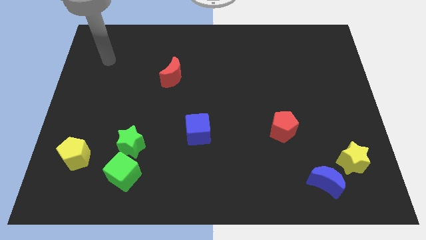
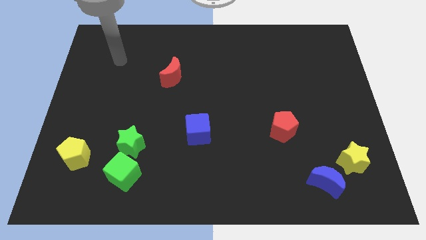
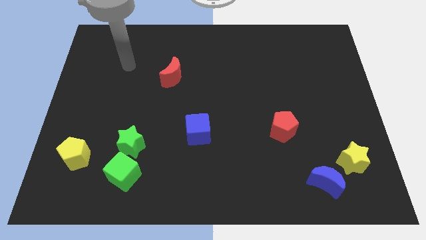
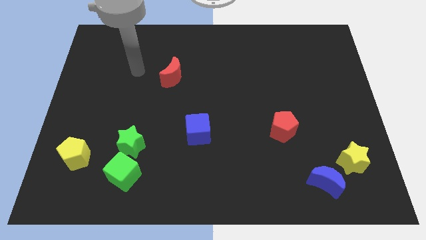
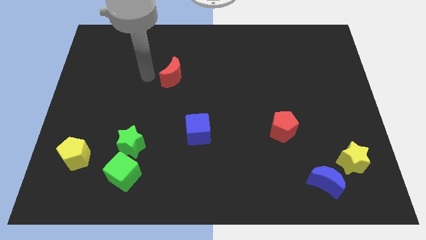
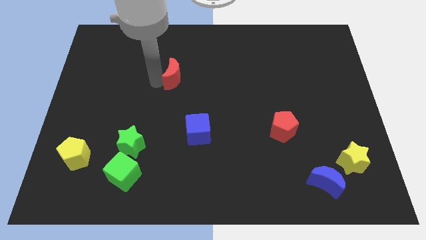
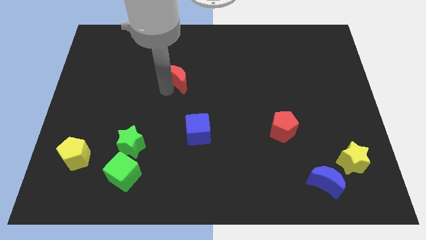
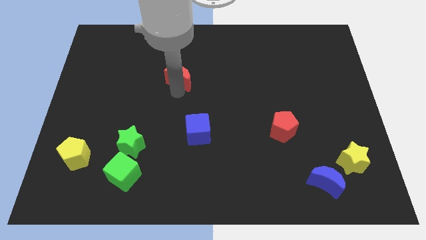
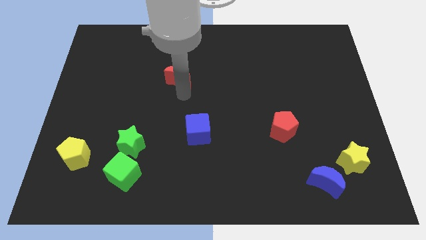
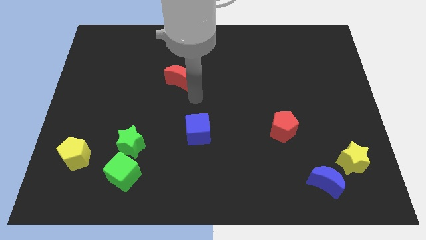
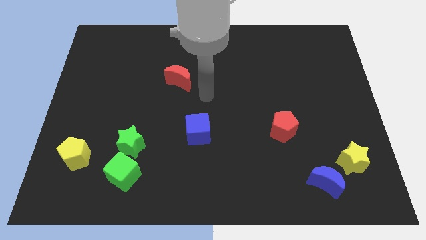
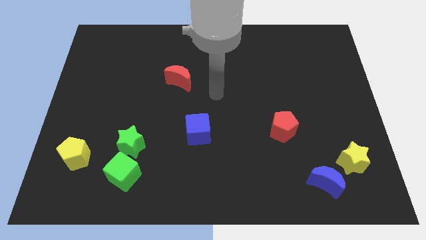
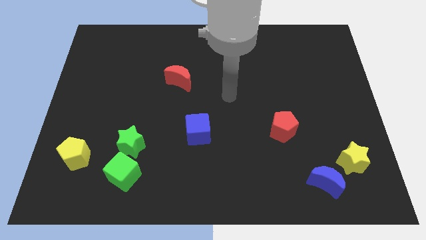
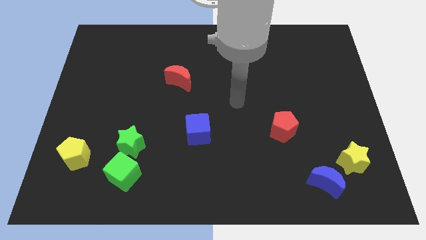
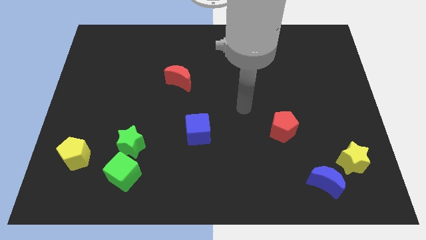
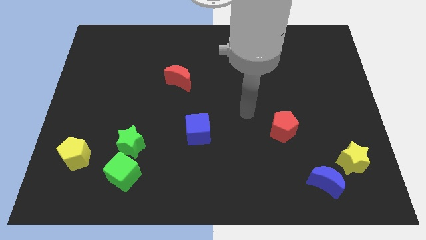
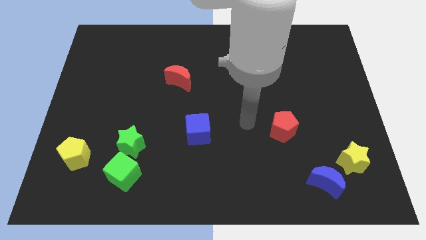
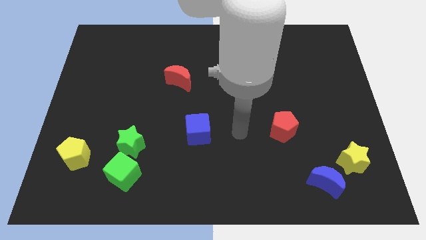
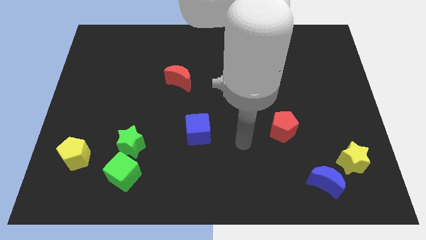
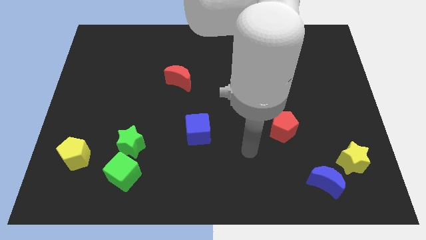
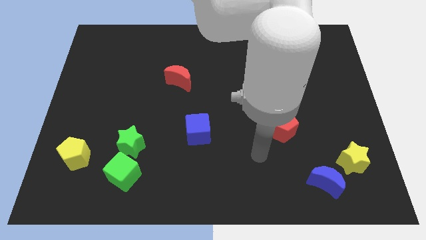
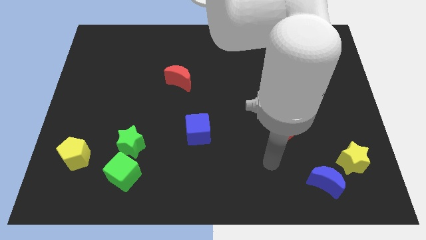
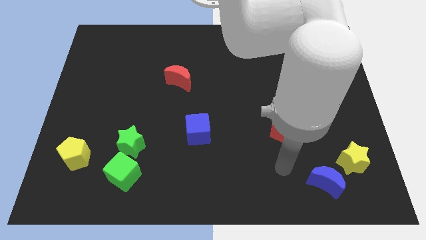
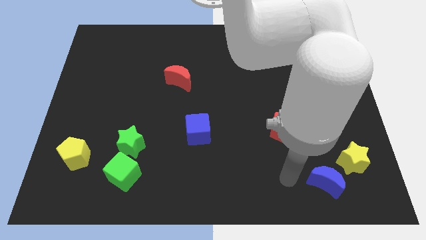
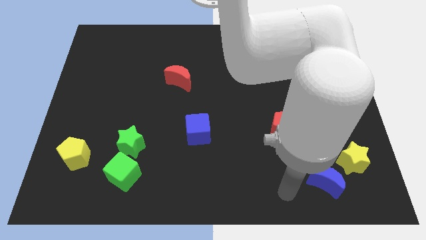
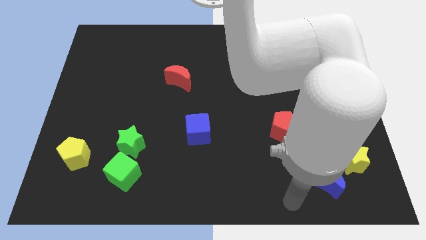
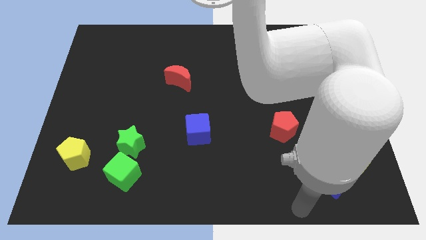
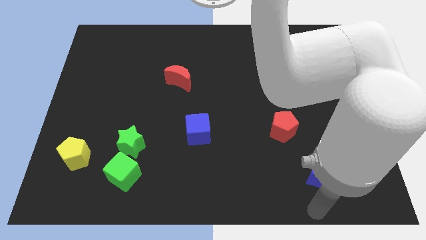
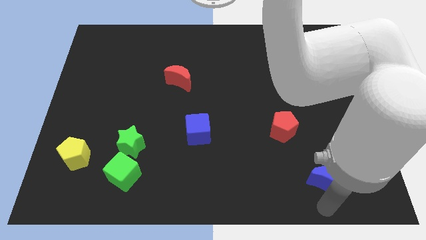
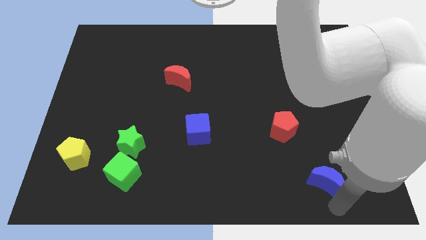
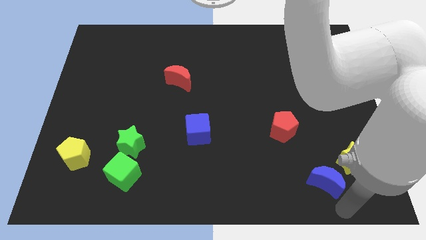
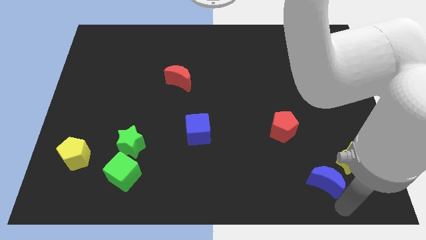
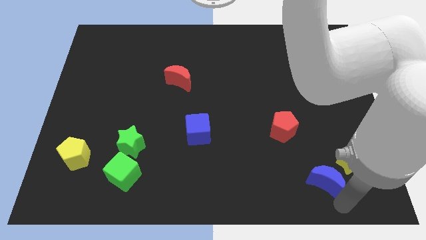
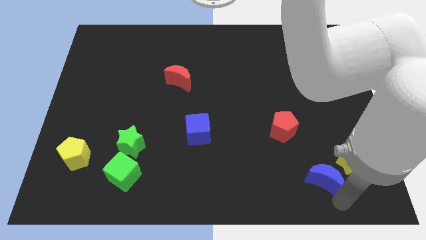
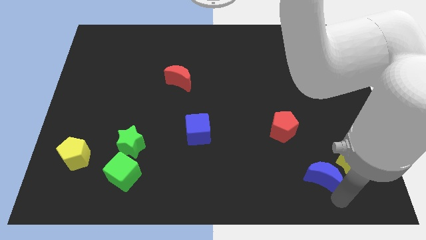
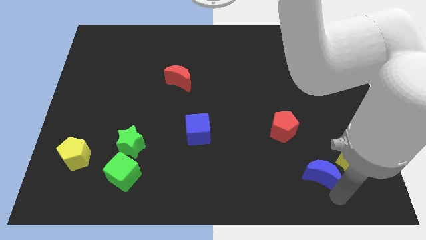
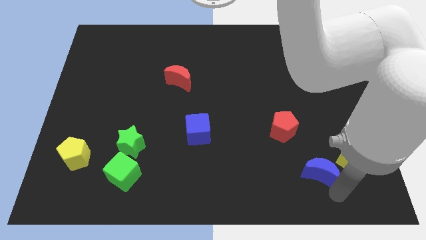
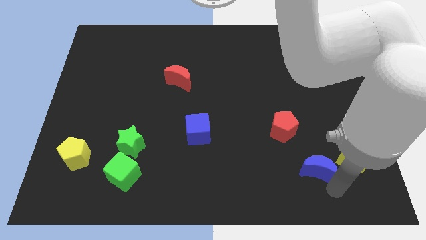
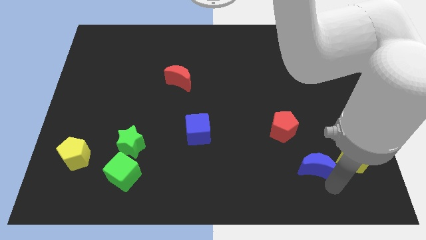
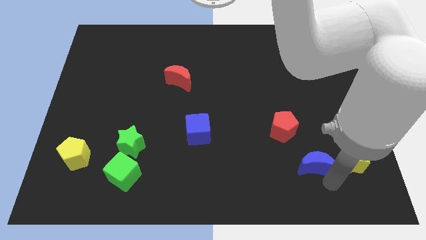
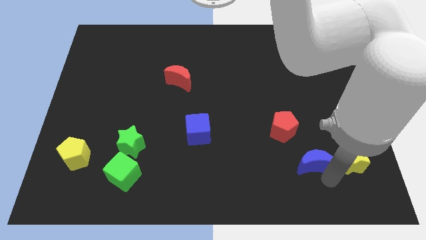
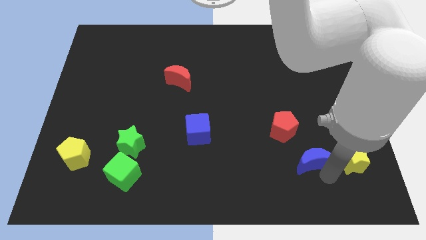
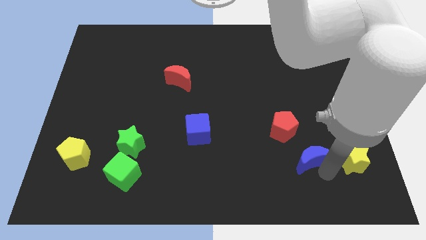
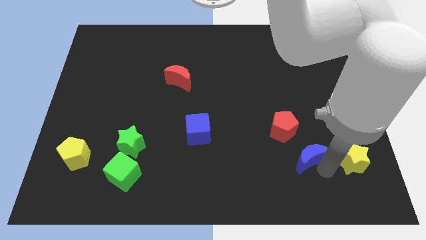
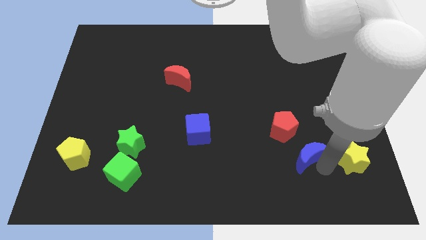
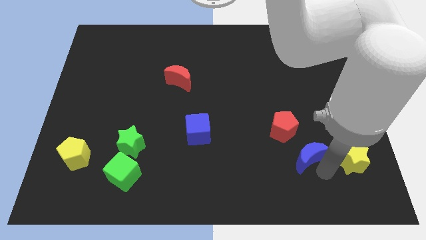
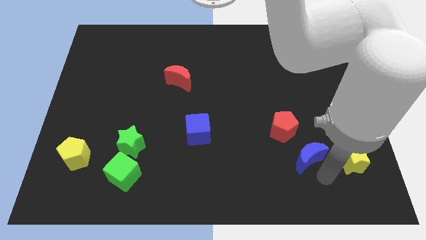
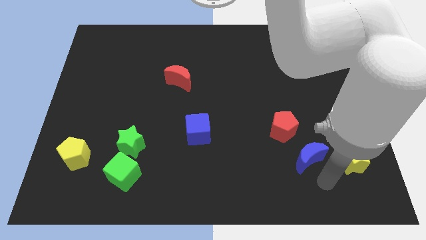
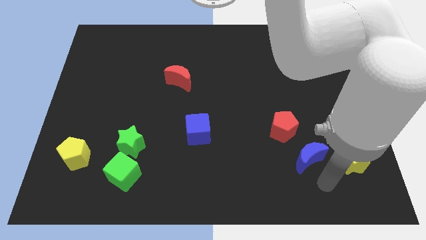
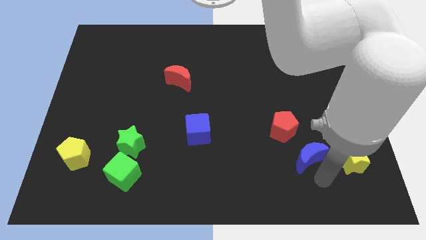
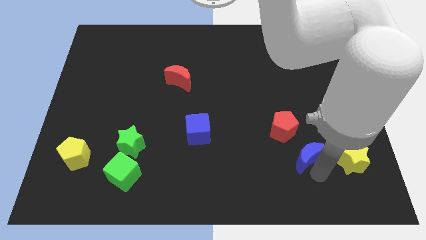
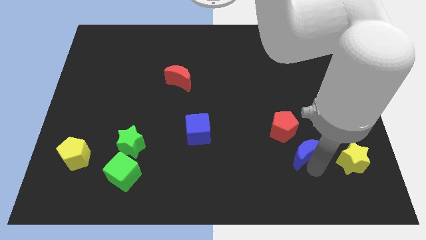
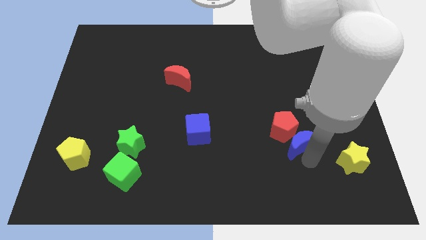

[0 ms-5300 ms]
put the blue moon next to the red pentagon

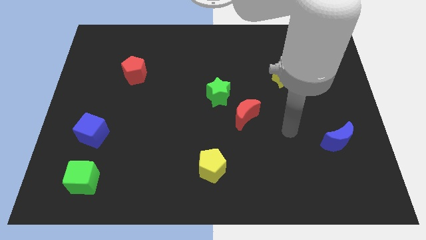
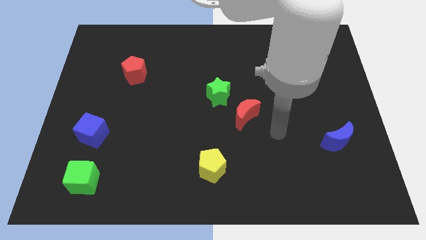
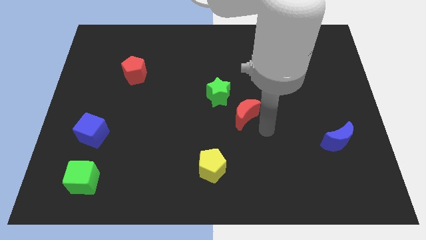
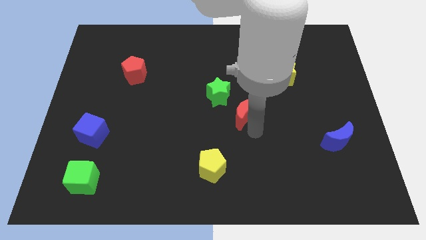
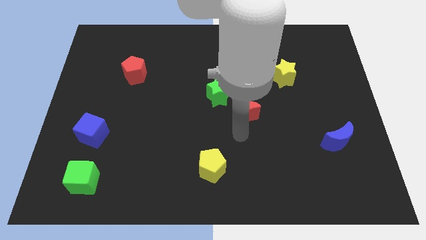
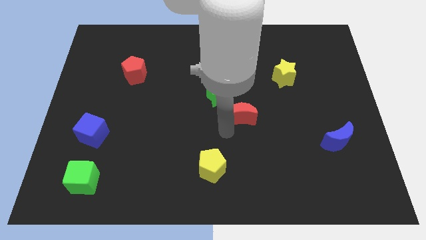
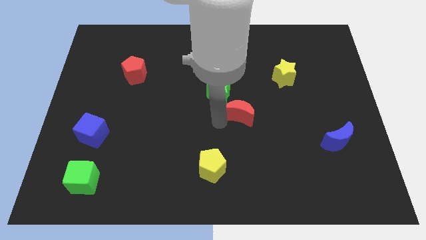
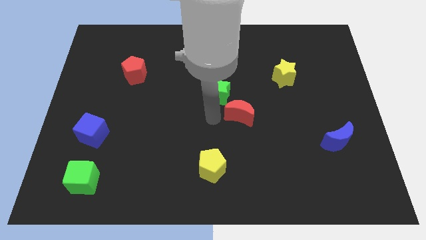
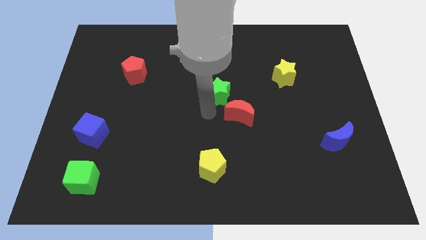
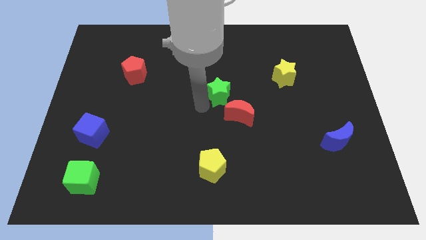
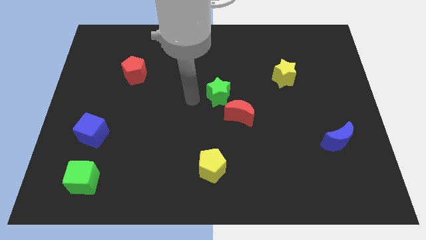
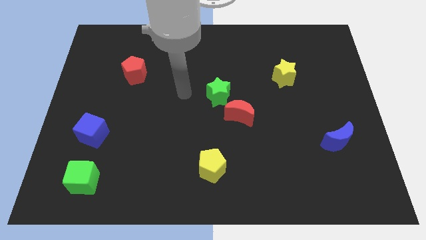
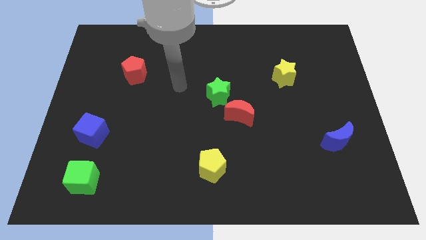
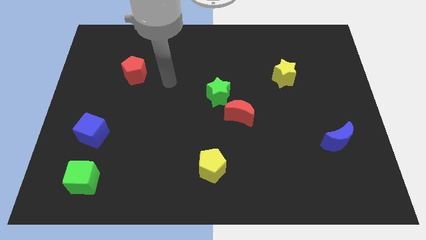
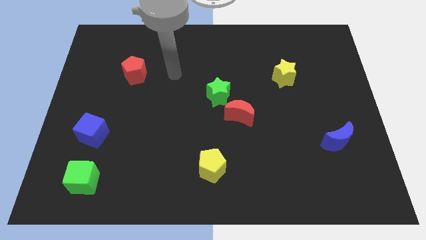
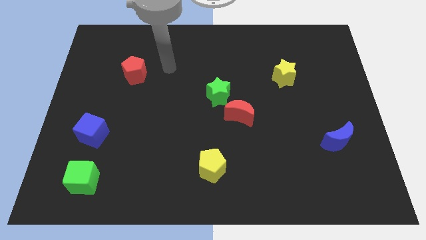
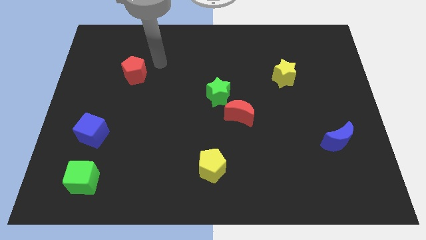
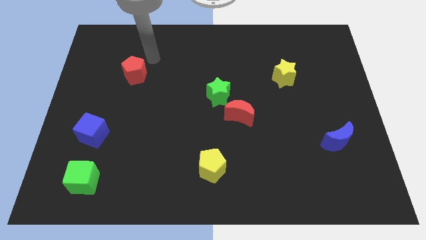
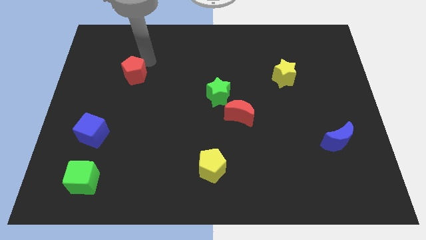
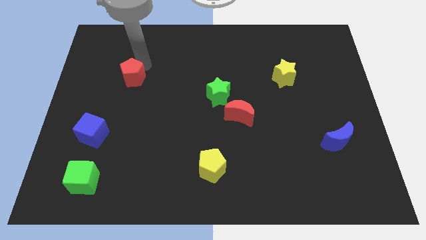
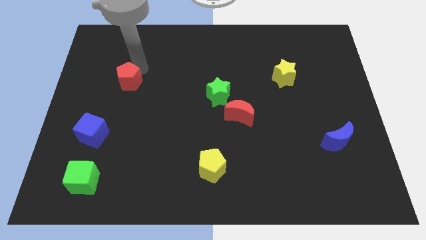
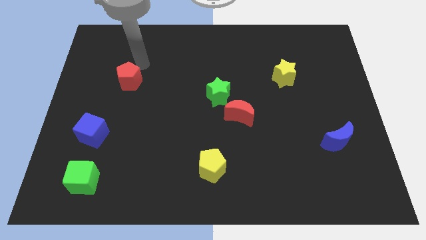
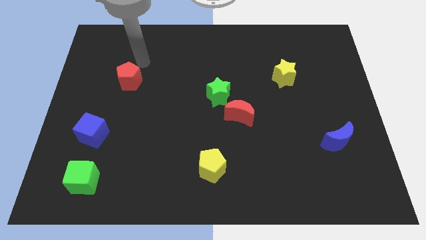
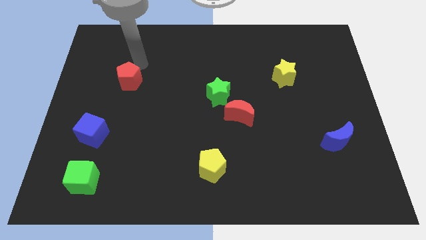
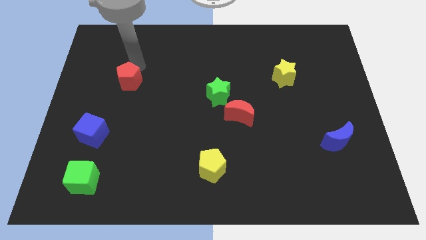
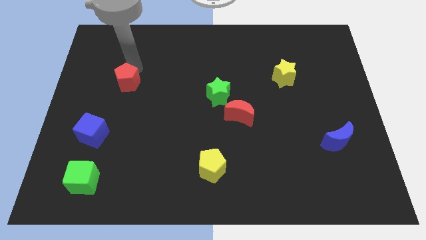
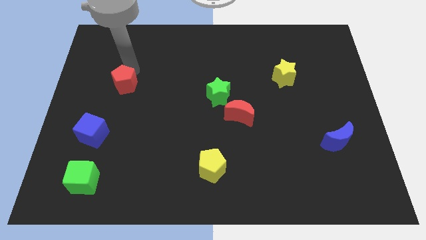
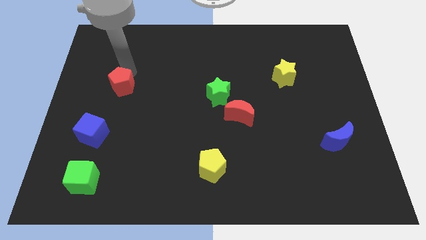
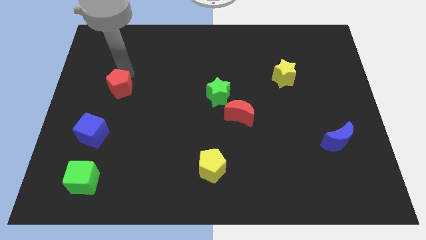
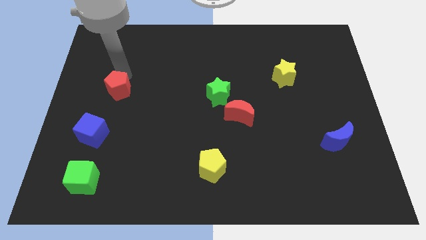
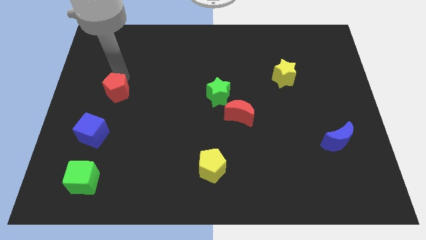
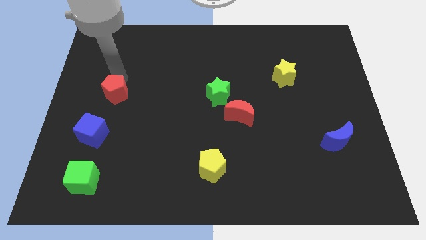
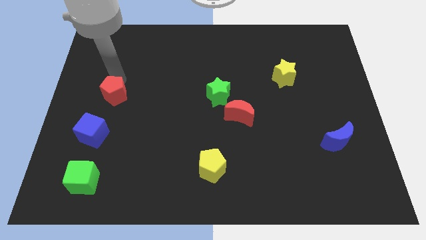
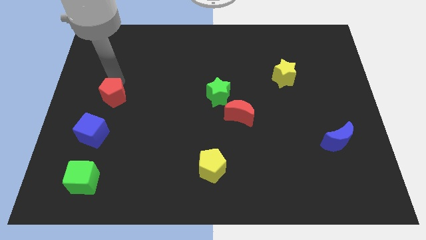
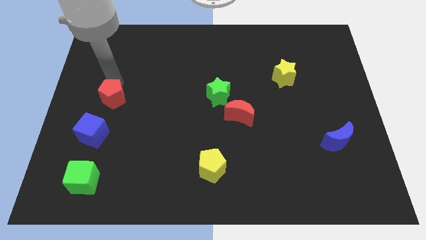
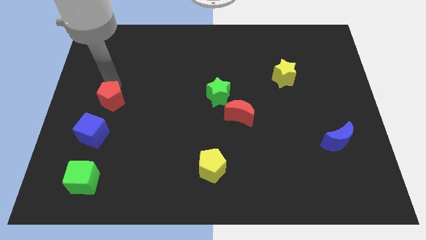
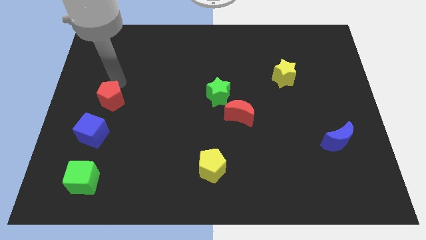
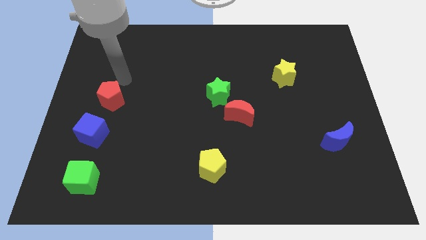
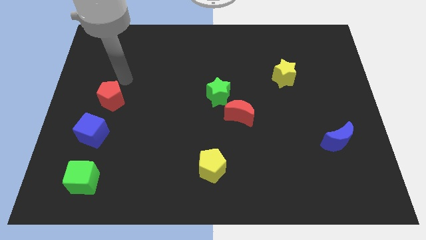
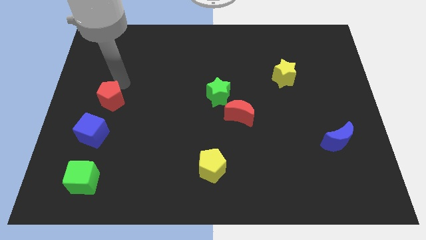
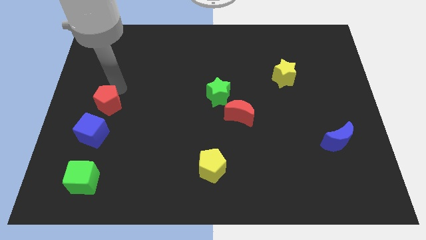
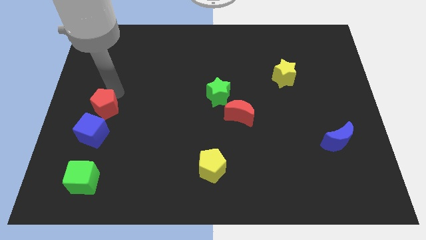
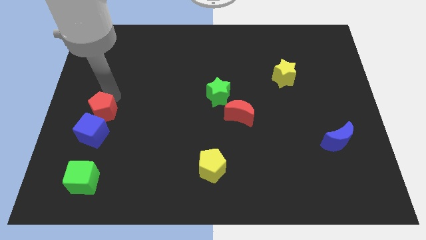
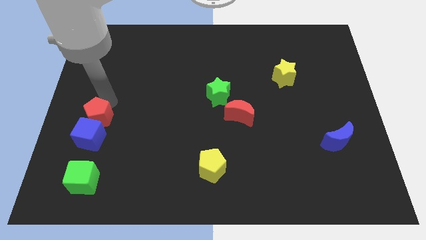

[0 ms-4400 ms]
put the red pentagon close to the blue cube
